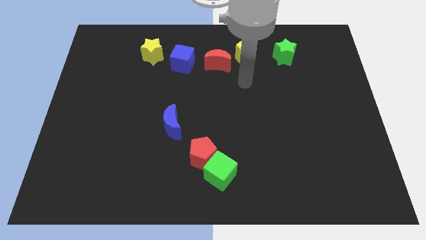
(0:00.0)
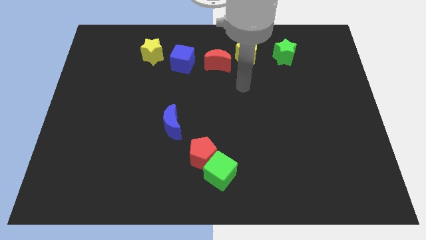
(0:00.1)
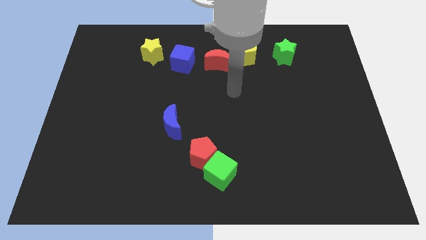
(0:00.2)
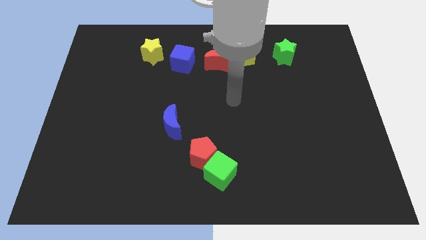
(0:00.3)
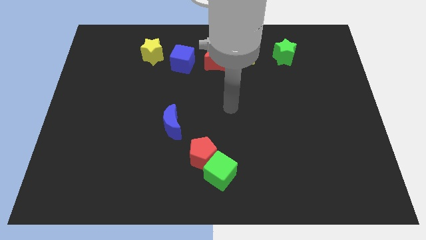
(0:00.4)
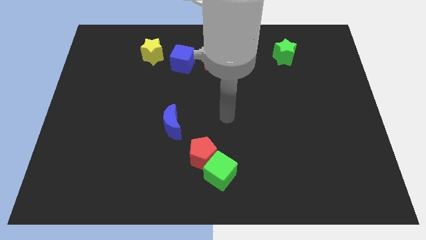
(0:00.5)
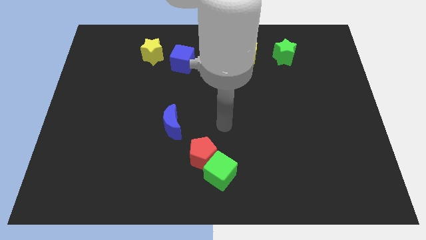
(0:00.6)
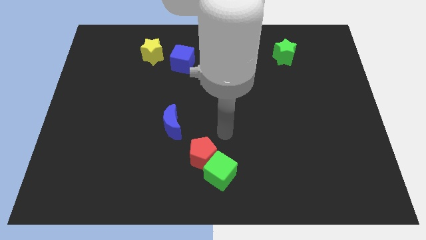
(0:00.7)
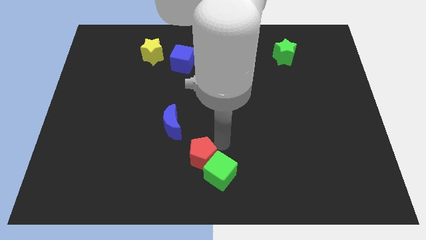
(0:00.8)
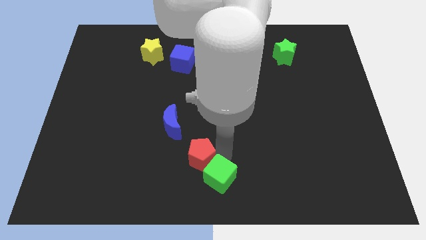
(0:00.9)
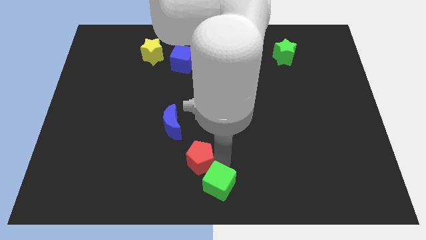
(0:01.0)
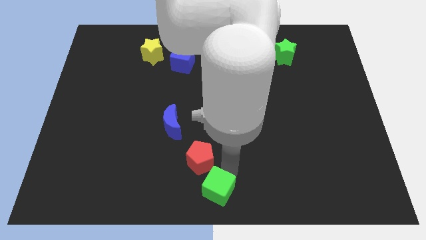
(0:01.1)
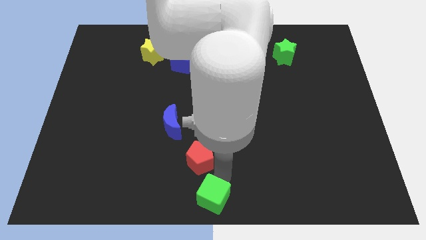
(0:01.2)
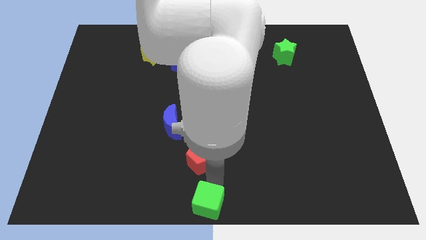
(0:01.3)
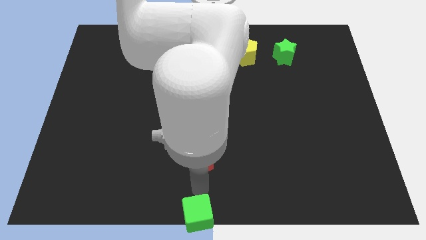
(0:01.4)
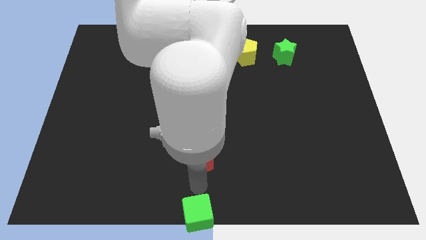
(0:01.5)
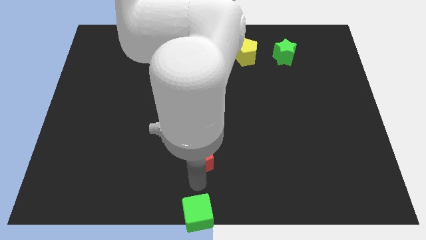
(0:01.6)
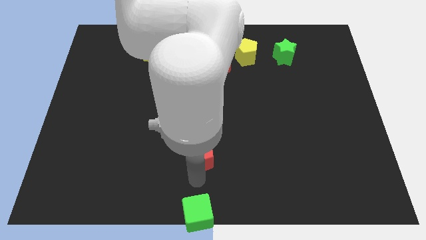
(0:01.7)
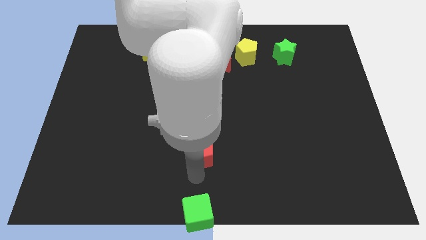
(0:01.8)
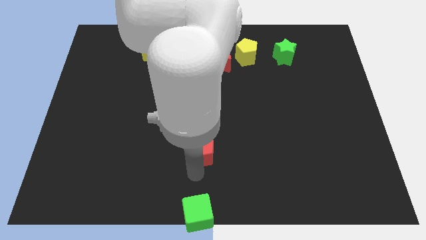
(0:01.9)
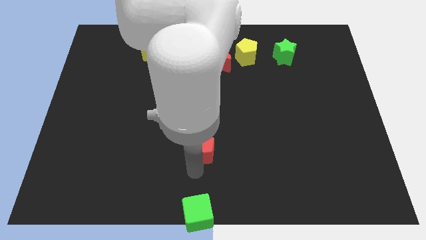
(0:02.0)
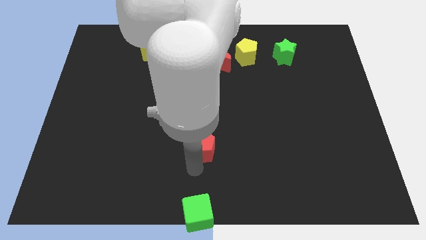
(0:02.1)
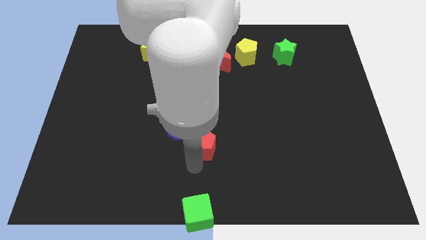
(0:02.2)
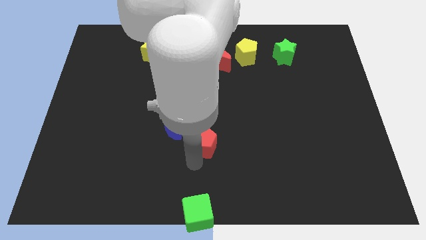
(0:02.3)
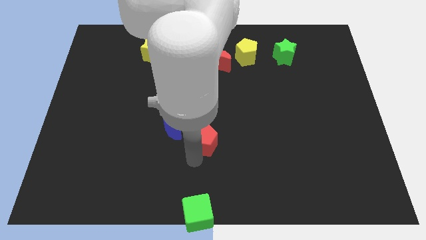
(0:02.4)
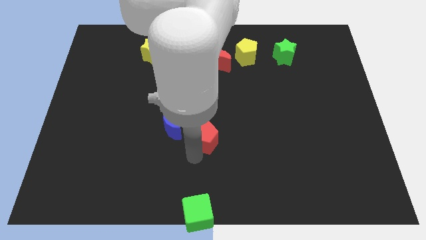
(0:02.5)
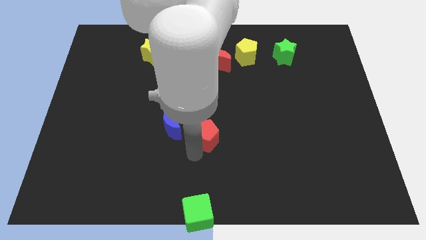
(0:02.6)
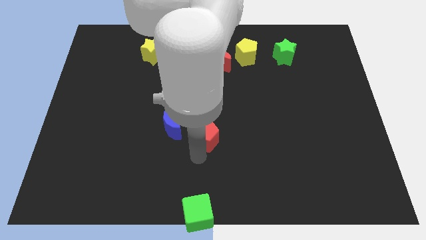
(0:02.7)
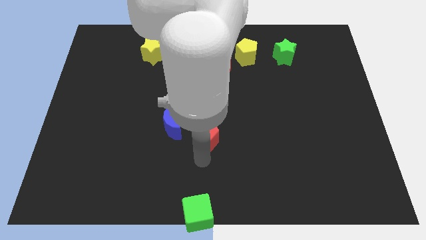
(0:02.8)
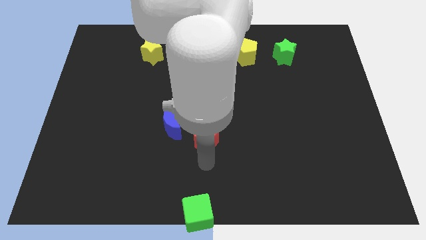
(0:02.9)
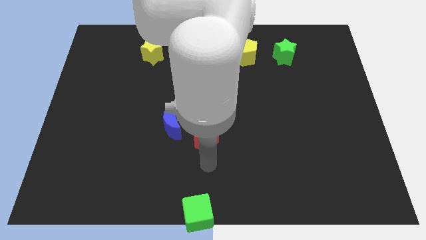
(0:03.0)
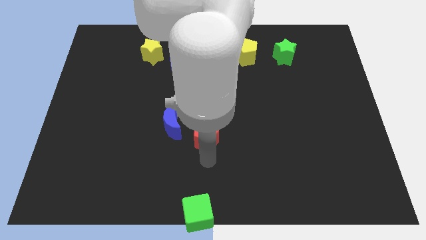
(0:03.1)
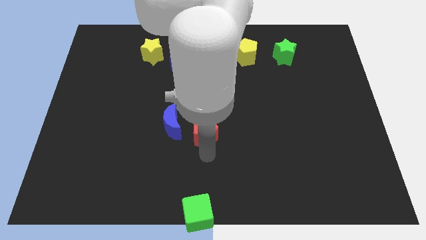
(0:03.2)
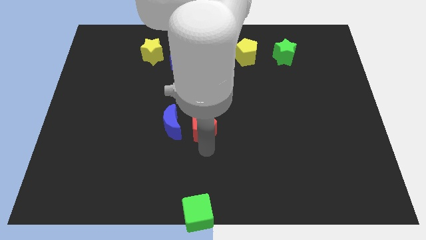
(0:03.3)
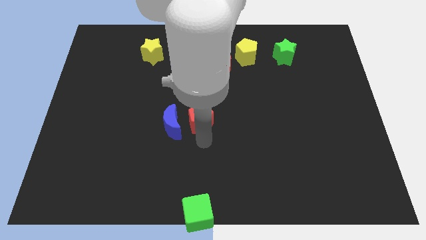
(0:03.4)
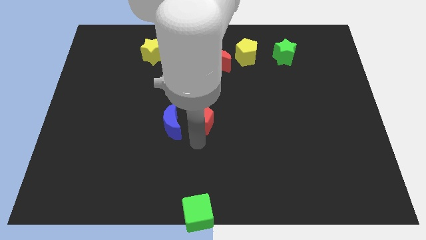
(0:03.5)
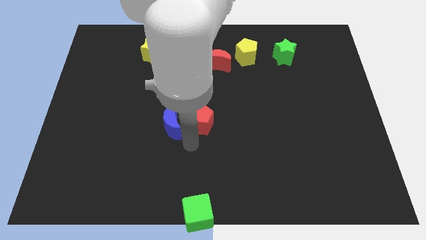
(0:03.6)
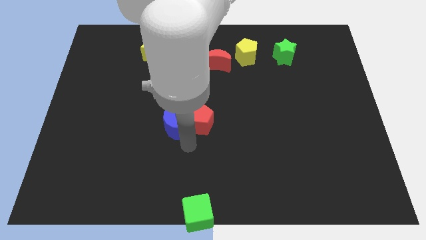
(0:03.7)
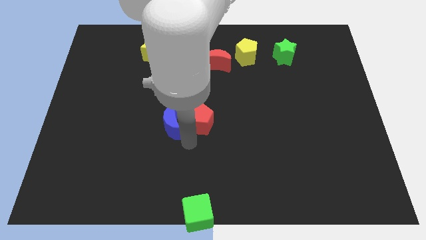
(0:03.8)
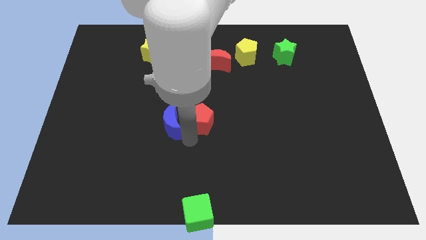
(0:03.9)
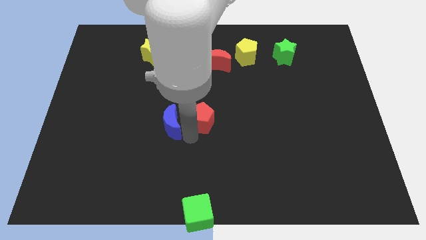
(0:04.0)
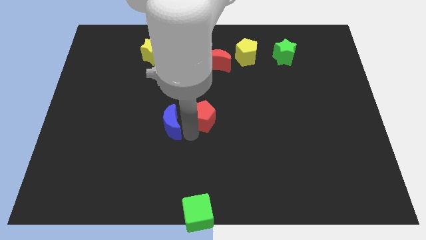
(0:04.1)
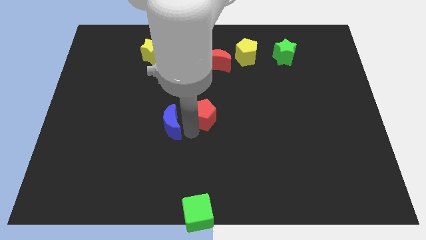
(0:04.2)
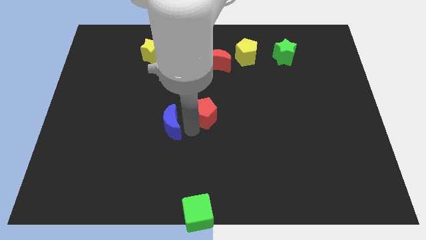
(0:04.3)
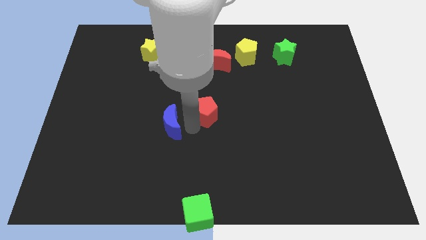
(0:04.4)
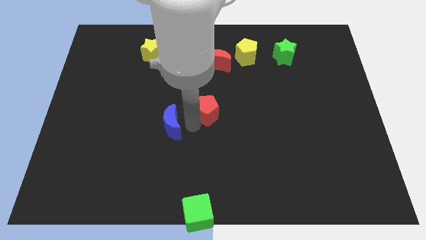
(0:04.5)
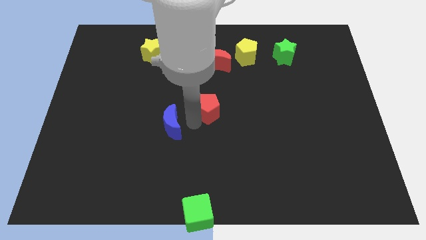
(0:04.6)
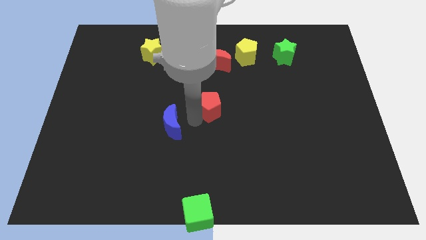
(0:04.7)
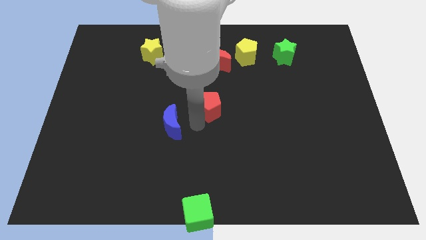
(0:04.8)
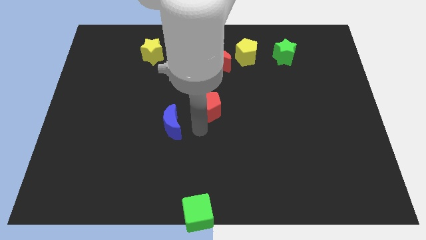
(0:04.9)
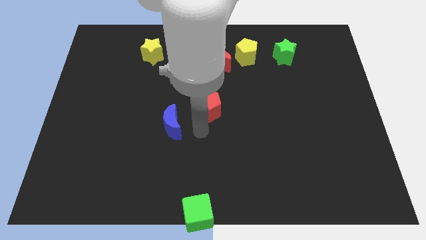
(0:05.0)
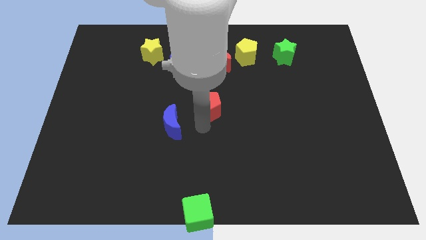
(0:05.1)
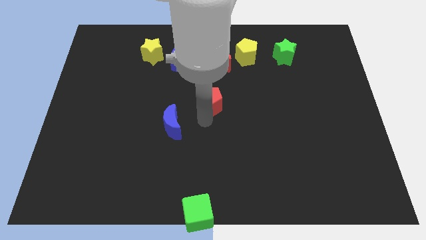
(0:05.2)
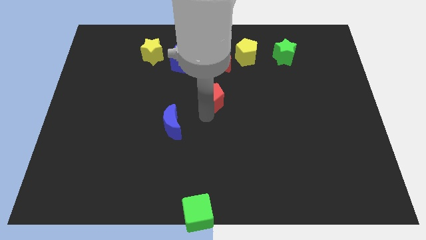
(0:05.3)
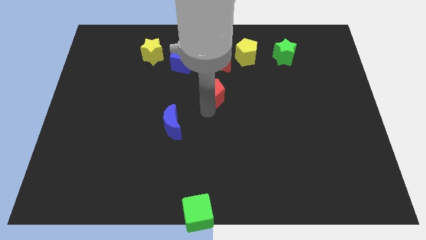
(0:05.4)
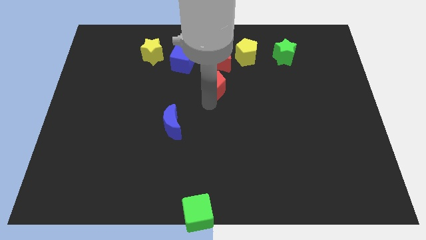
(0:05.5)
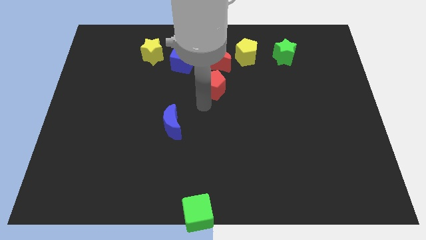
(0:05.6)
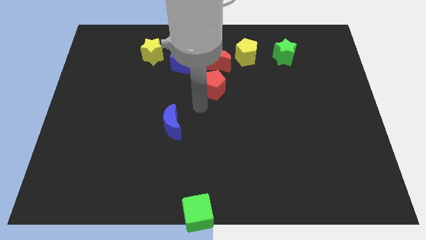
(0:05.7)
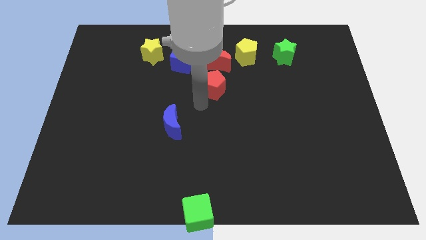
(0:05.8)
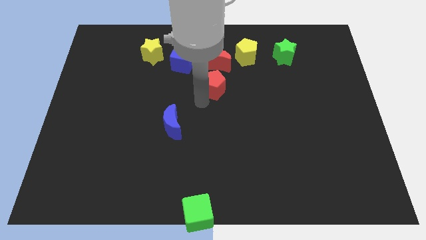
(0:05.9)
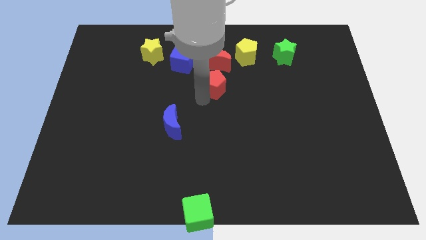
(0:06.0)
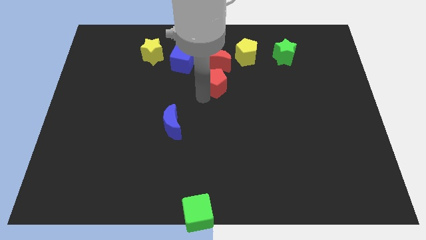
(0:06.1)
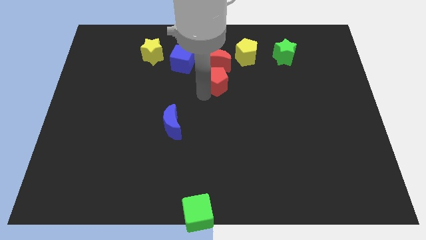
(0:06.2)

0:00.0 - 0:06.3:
put the red pentagon to the bottom left side of the yellow pentagon

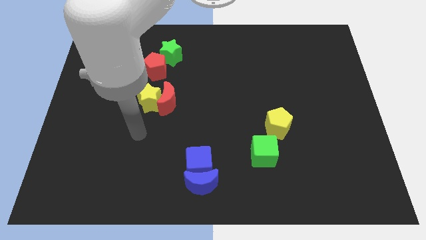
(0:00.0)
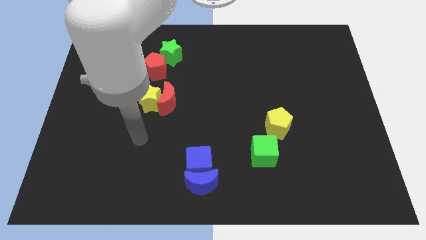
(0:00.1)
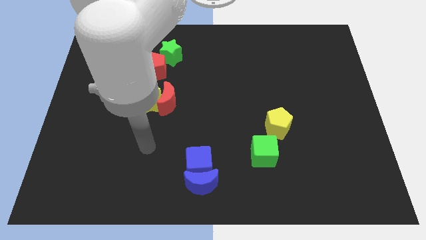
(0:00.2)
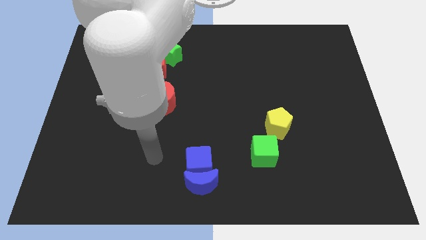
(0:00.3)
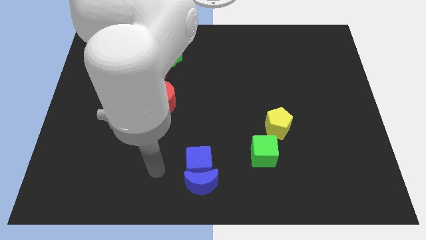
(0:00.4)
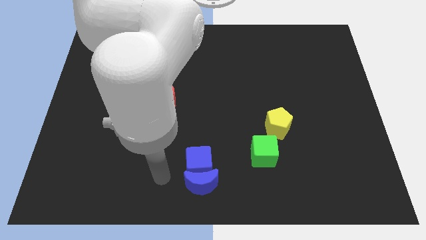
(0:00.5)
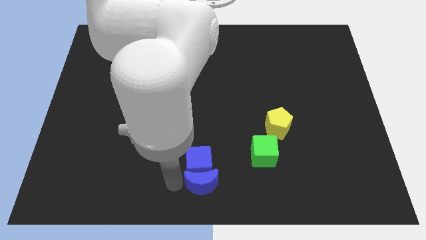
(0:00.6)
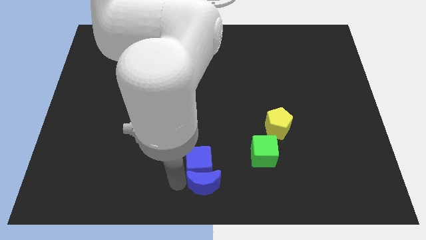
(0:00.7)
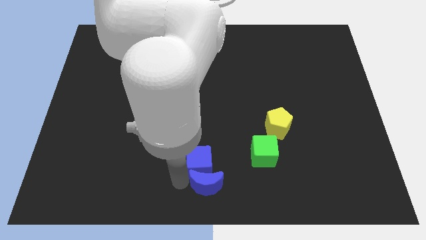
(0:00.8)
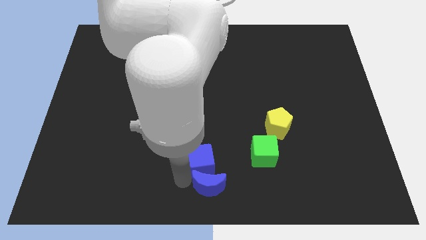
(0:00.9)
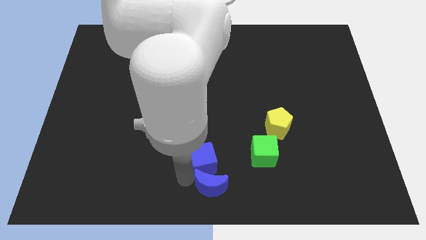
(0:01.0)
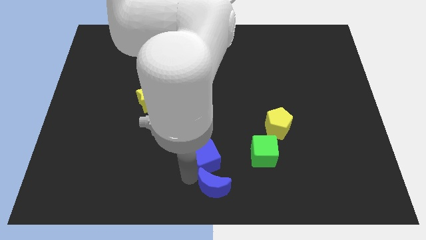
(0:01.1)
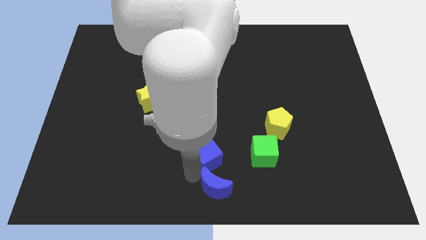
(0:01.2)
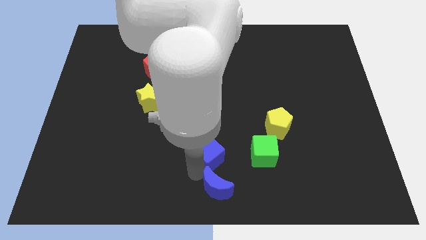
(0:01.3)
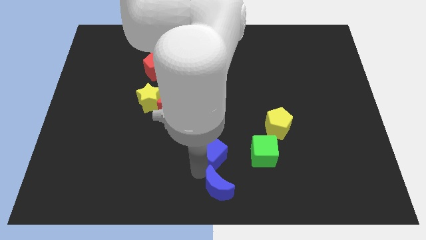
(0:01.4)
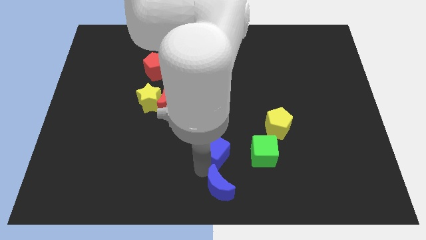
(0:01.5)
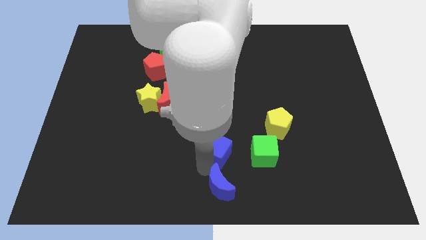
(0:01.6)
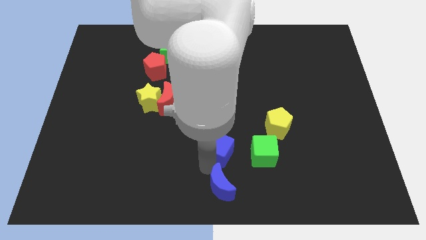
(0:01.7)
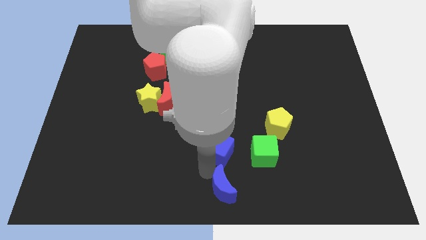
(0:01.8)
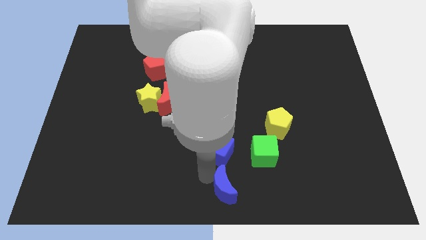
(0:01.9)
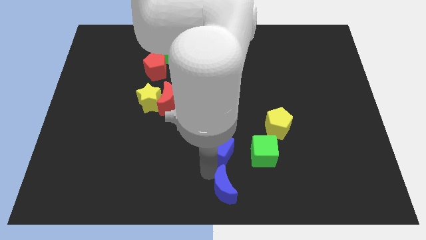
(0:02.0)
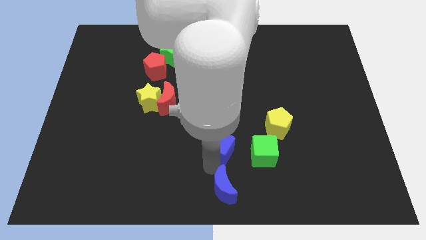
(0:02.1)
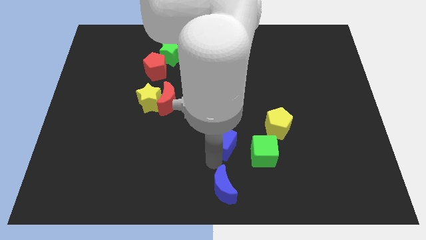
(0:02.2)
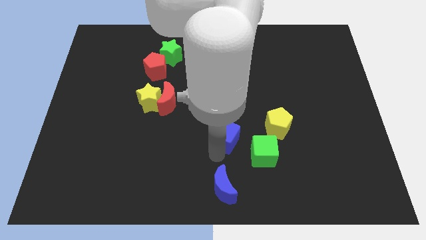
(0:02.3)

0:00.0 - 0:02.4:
slide the blue cube just left of the yellow pentagon
